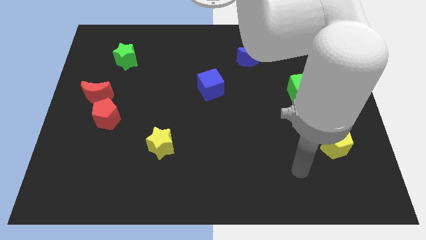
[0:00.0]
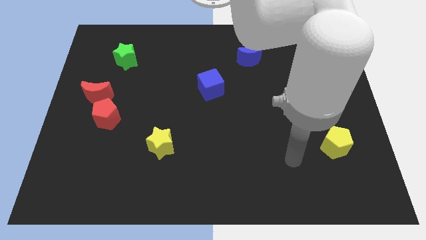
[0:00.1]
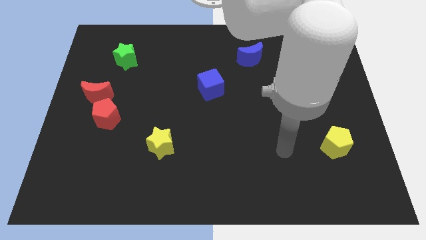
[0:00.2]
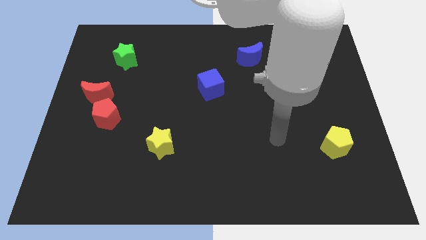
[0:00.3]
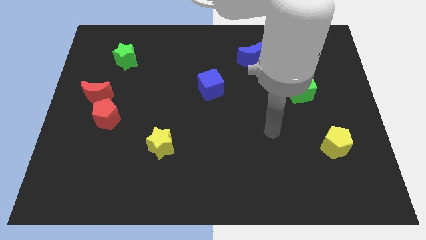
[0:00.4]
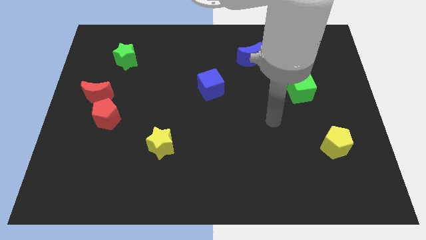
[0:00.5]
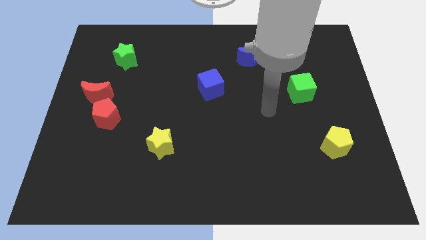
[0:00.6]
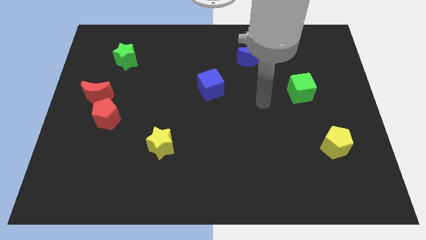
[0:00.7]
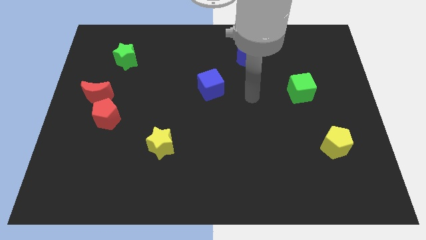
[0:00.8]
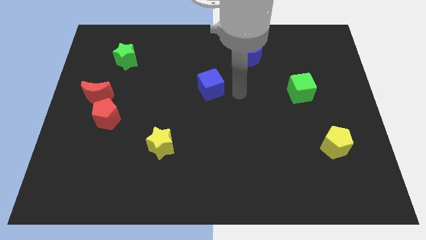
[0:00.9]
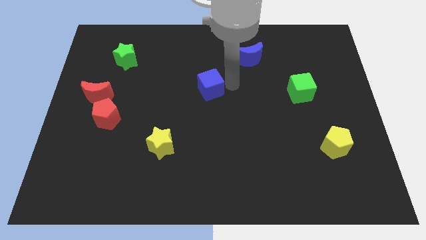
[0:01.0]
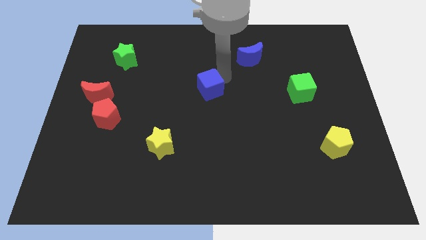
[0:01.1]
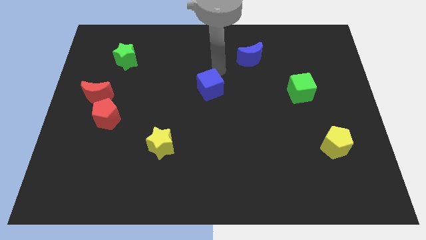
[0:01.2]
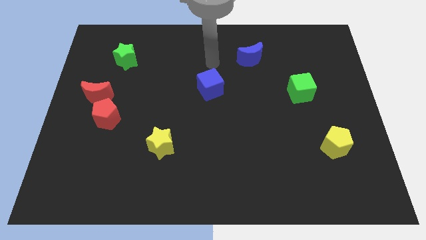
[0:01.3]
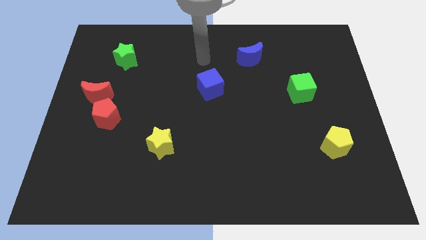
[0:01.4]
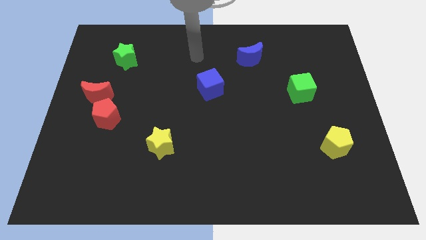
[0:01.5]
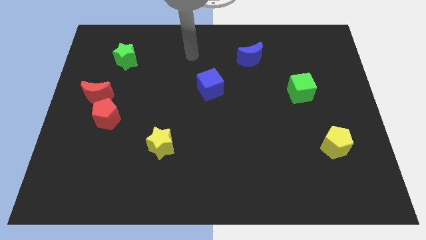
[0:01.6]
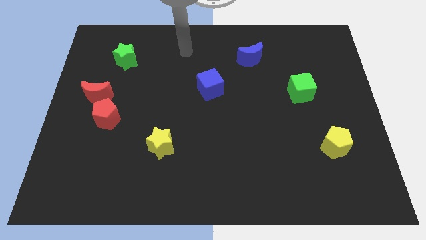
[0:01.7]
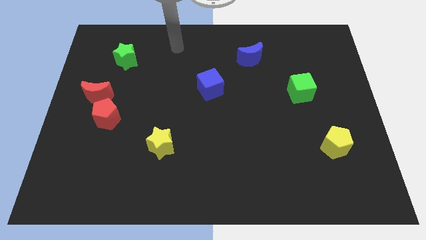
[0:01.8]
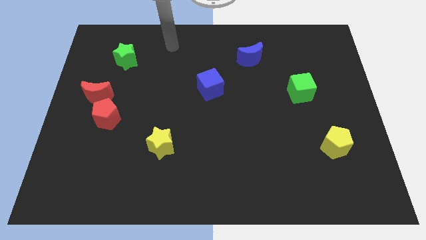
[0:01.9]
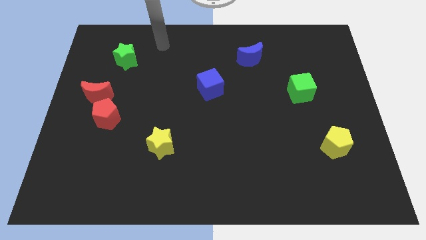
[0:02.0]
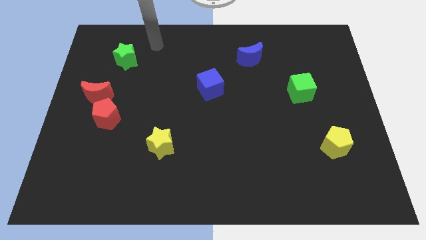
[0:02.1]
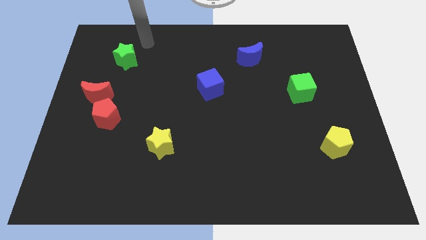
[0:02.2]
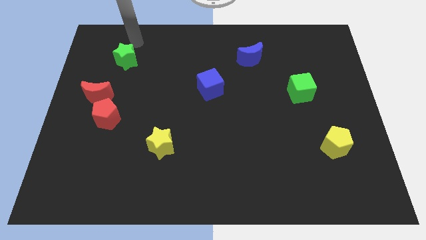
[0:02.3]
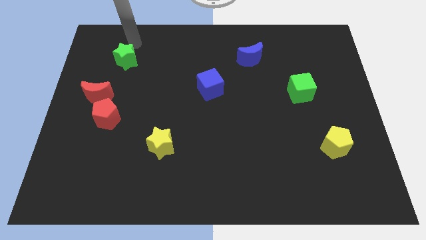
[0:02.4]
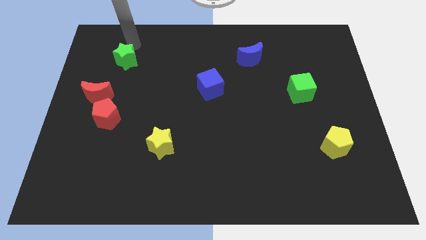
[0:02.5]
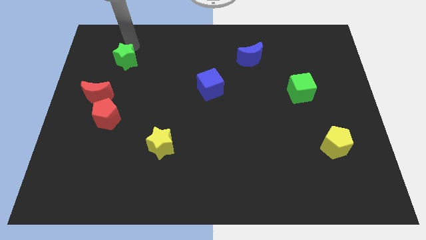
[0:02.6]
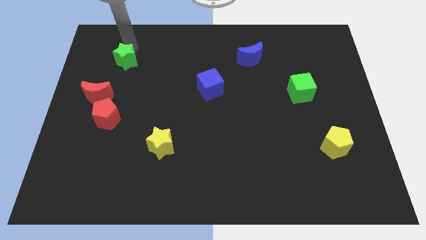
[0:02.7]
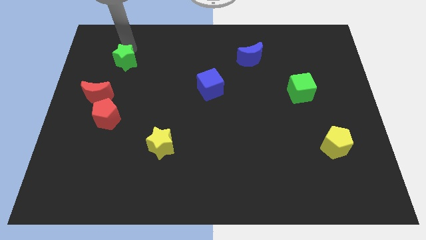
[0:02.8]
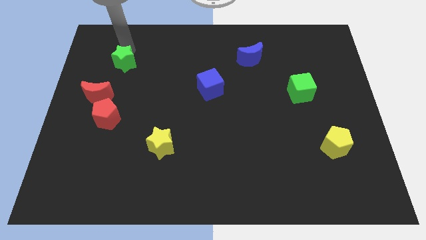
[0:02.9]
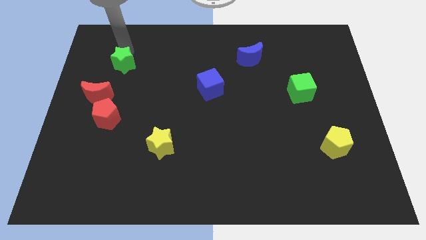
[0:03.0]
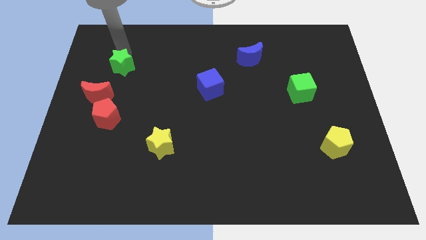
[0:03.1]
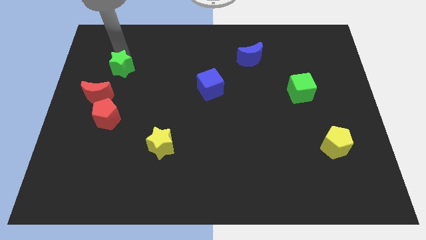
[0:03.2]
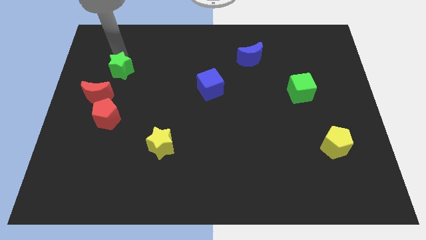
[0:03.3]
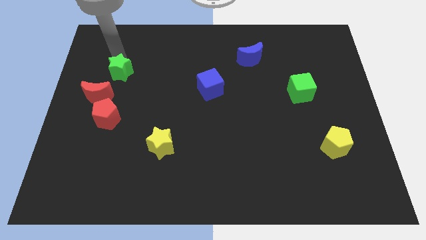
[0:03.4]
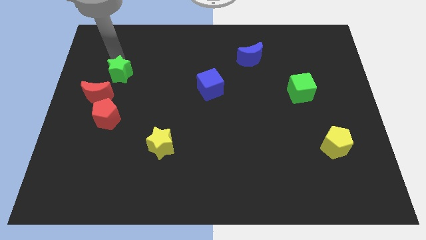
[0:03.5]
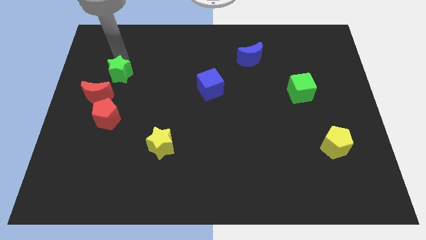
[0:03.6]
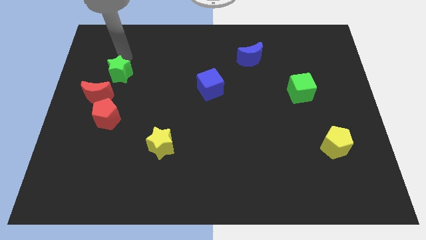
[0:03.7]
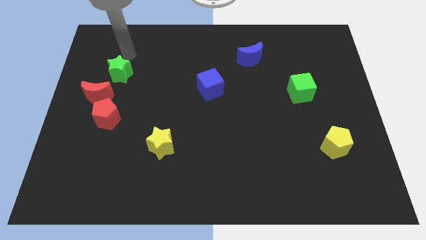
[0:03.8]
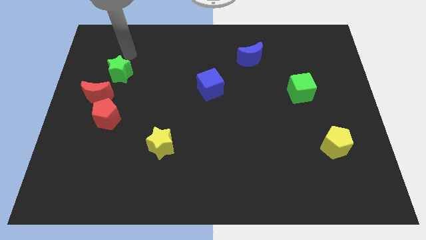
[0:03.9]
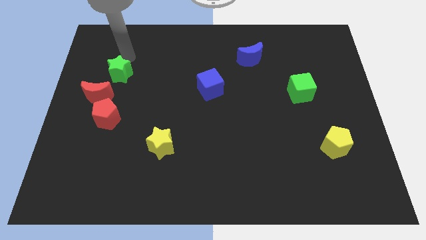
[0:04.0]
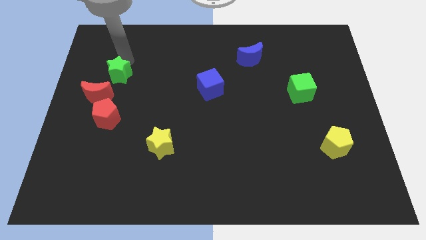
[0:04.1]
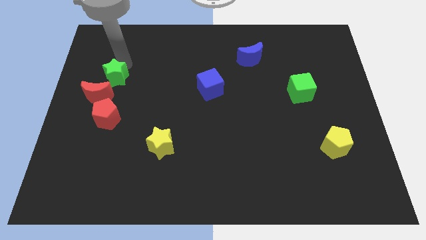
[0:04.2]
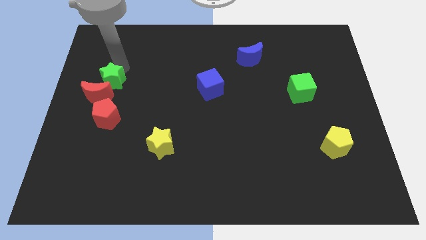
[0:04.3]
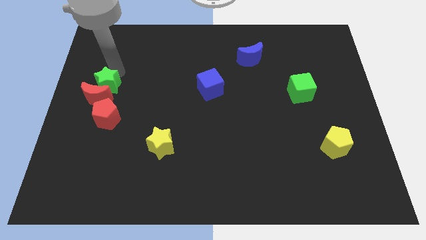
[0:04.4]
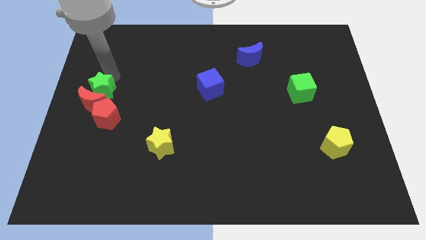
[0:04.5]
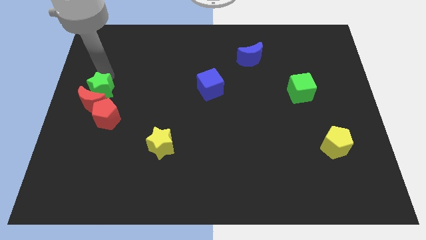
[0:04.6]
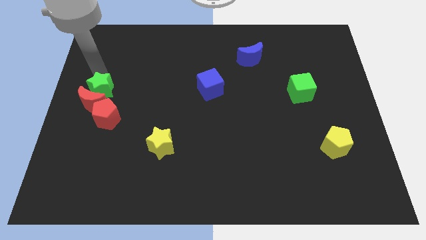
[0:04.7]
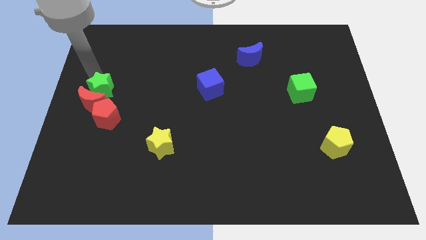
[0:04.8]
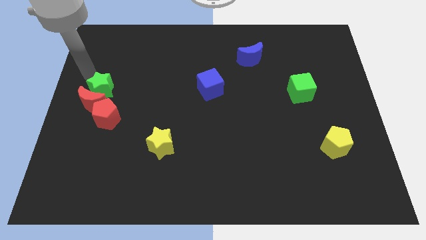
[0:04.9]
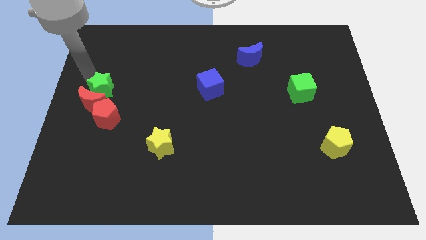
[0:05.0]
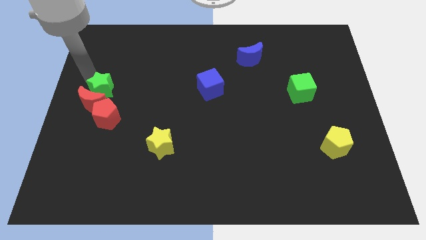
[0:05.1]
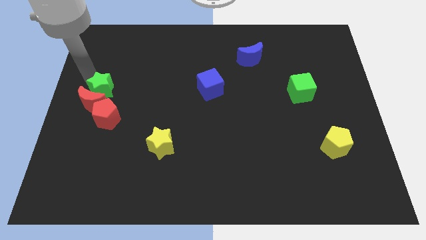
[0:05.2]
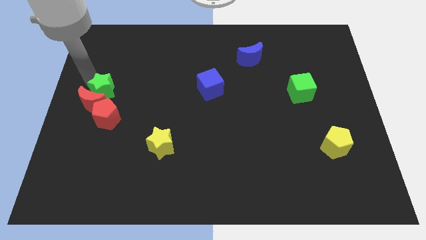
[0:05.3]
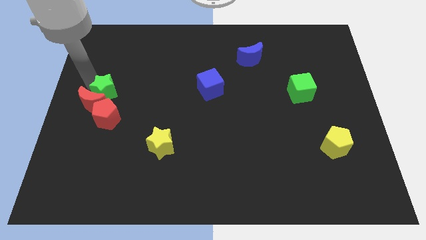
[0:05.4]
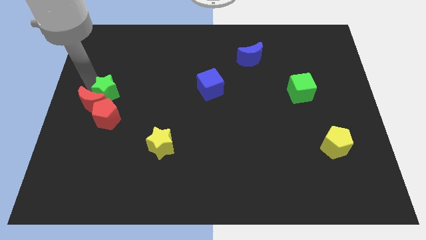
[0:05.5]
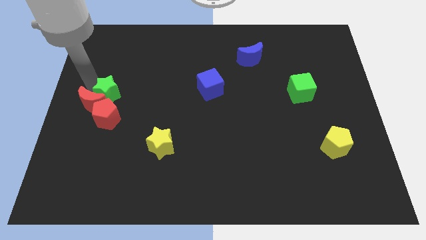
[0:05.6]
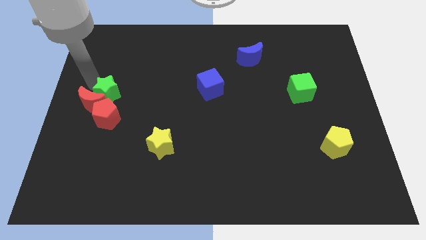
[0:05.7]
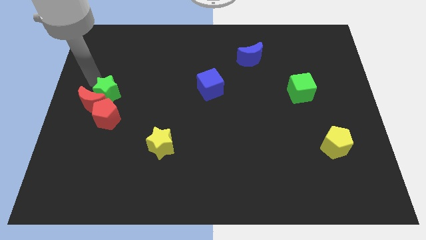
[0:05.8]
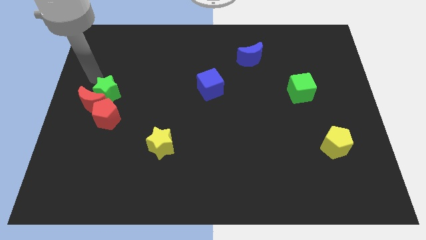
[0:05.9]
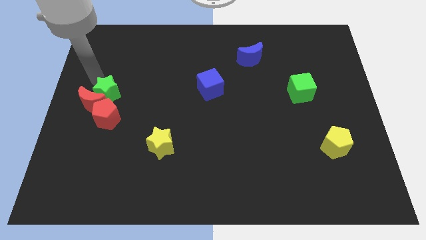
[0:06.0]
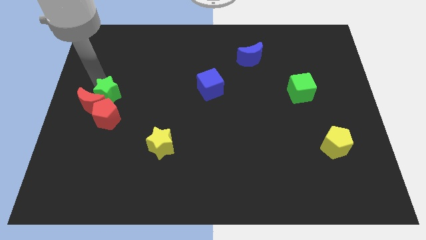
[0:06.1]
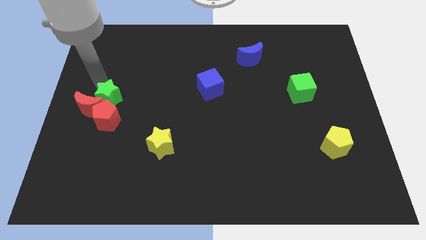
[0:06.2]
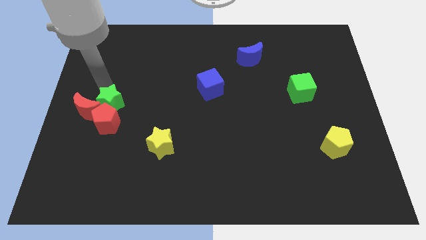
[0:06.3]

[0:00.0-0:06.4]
move the green star close to the red pentagon
